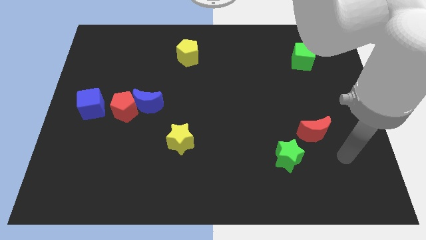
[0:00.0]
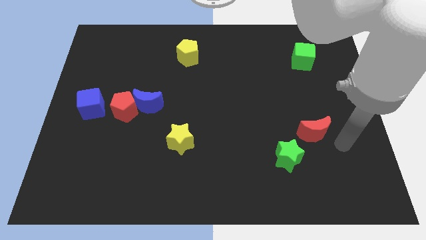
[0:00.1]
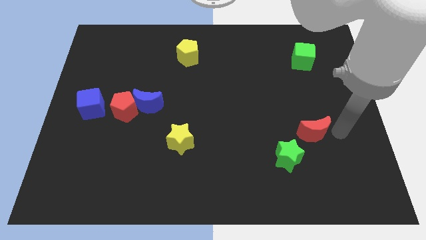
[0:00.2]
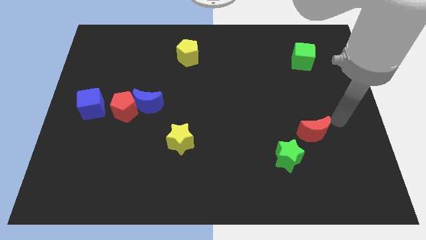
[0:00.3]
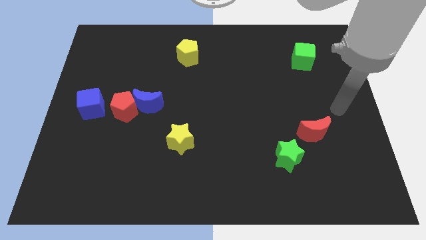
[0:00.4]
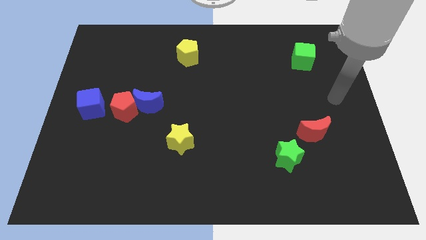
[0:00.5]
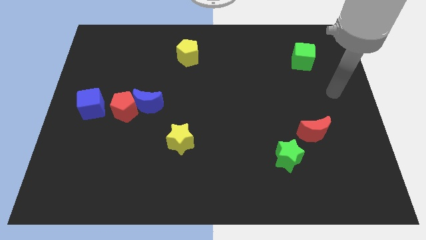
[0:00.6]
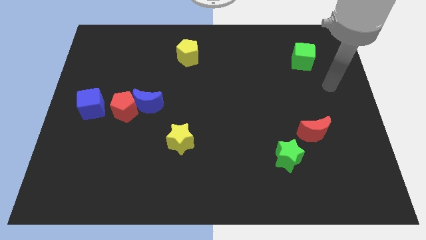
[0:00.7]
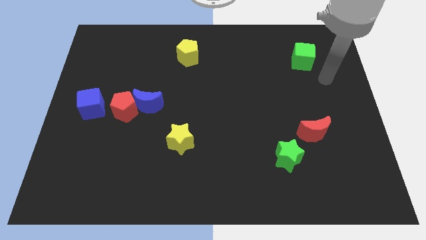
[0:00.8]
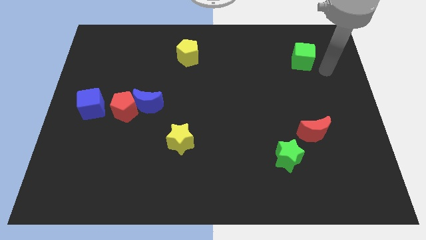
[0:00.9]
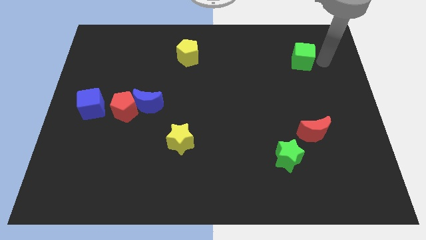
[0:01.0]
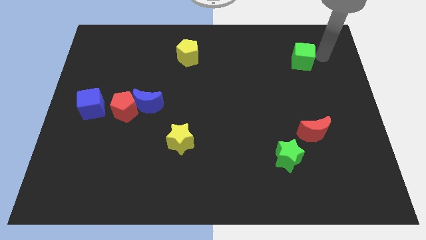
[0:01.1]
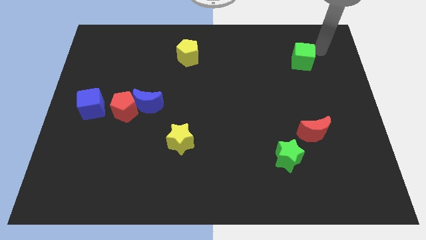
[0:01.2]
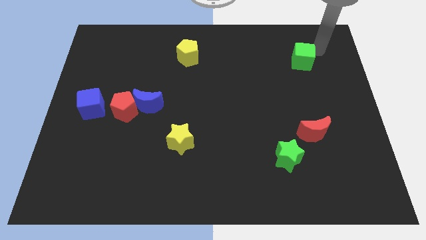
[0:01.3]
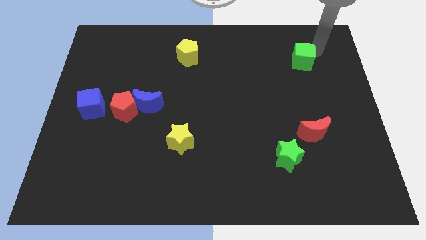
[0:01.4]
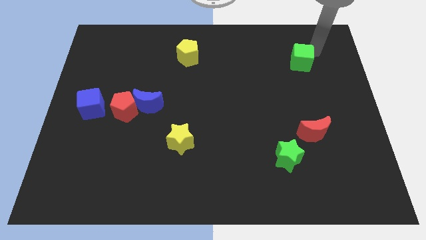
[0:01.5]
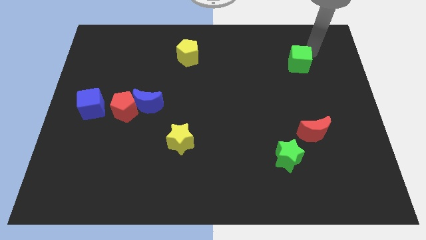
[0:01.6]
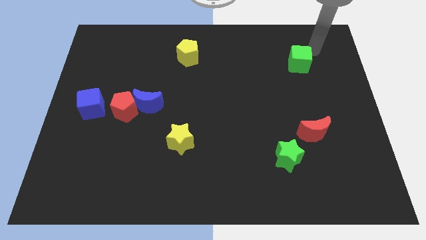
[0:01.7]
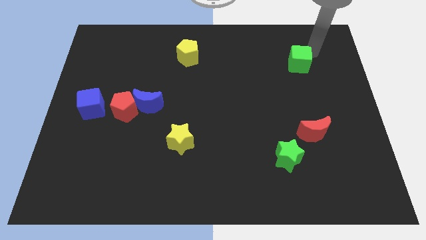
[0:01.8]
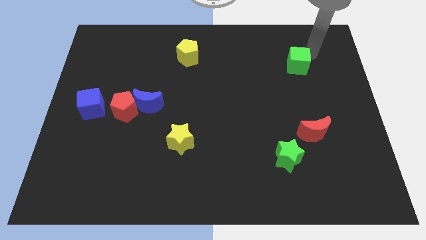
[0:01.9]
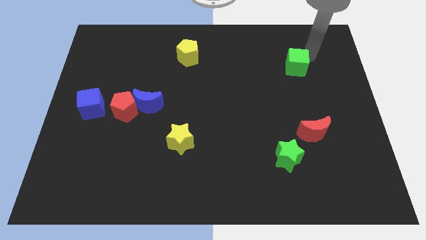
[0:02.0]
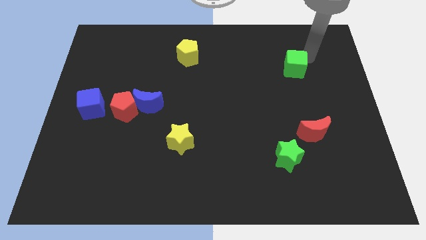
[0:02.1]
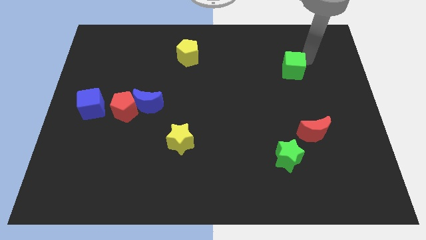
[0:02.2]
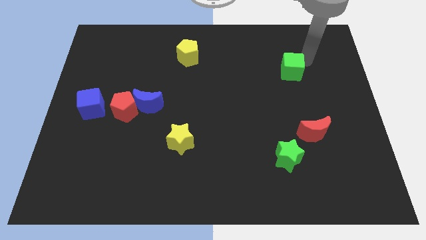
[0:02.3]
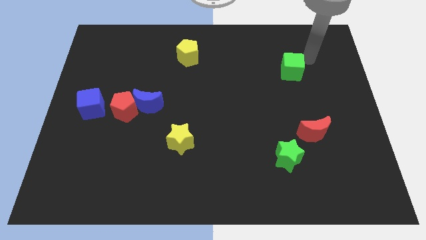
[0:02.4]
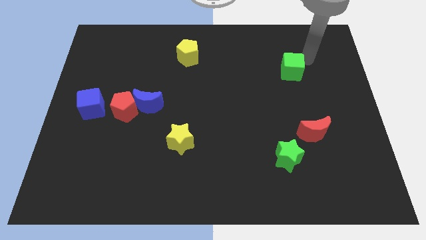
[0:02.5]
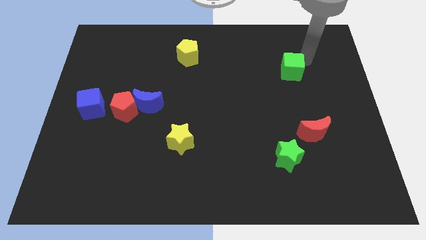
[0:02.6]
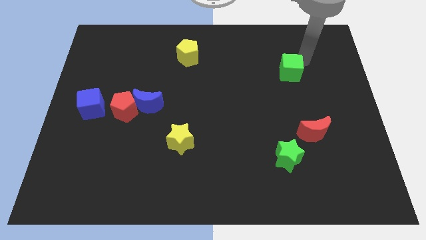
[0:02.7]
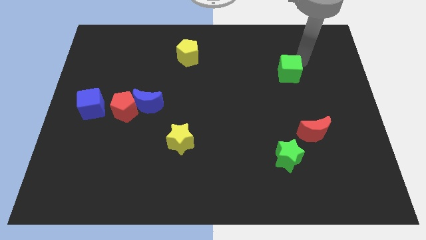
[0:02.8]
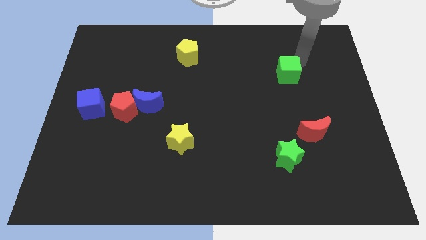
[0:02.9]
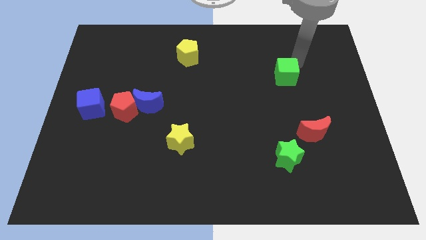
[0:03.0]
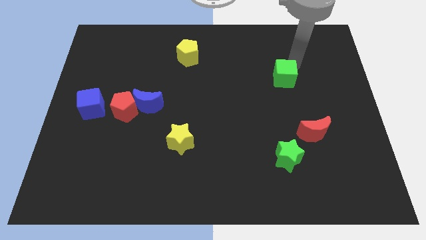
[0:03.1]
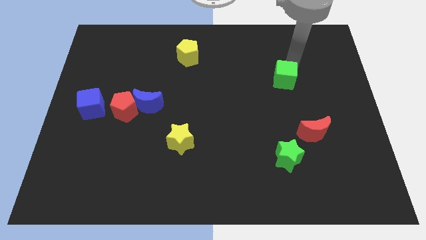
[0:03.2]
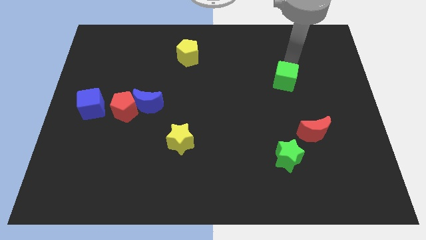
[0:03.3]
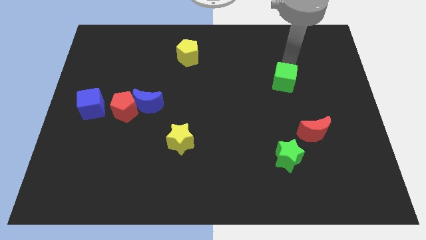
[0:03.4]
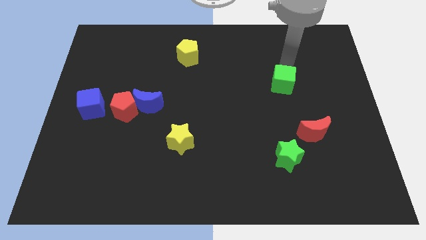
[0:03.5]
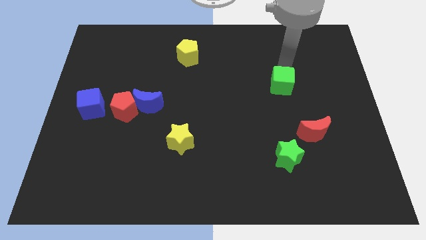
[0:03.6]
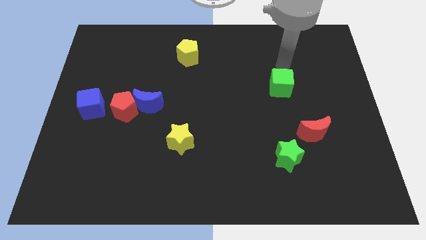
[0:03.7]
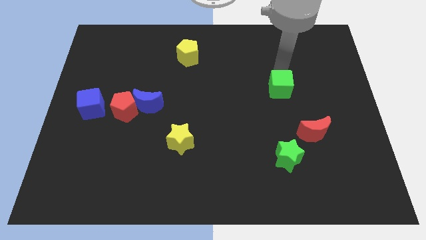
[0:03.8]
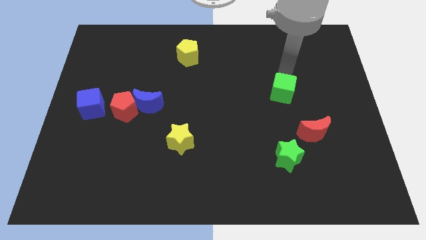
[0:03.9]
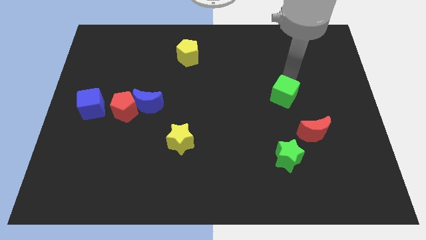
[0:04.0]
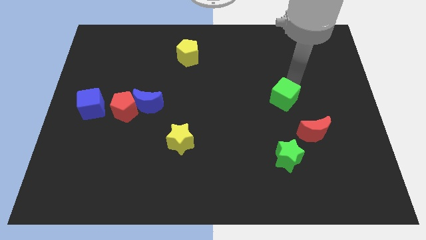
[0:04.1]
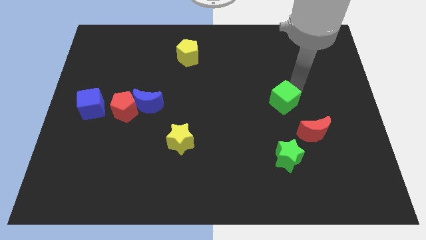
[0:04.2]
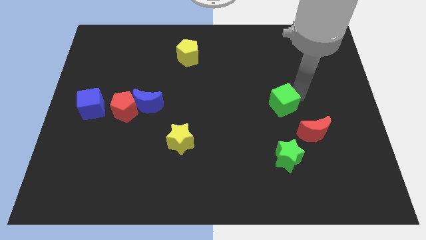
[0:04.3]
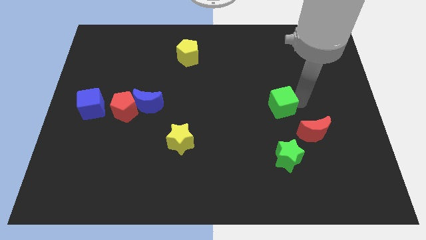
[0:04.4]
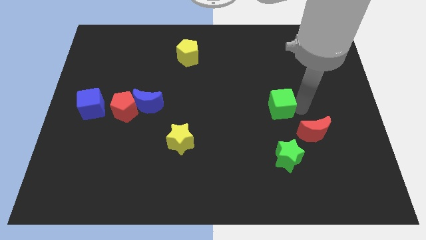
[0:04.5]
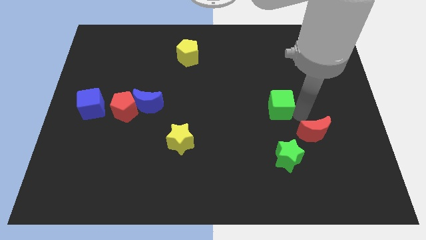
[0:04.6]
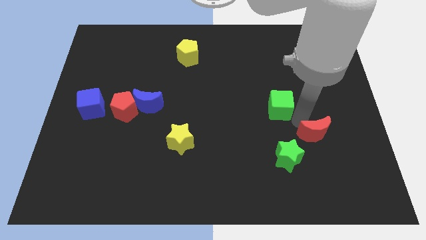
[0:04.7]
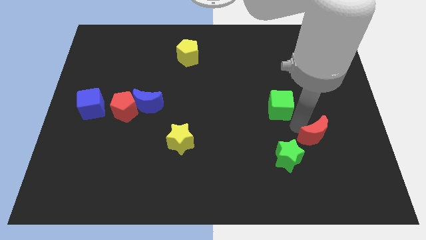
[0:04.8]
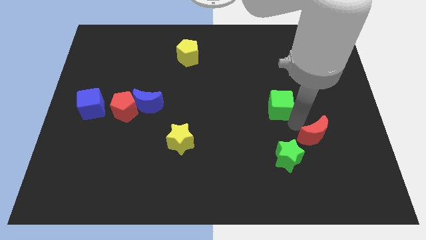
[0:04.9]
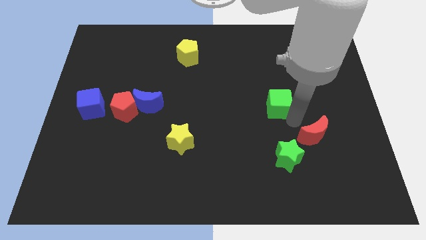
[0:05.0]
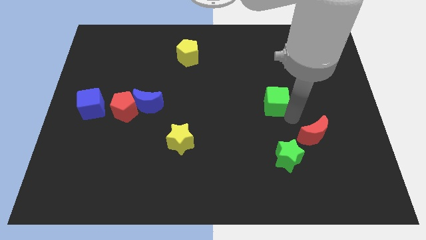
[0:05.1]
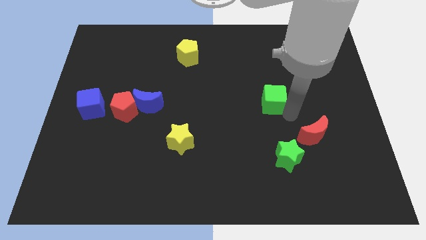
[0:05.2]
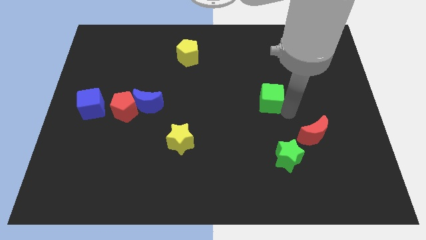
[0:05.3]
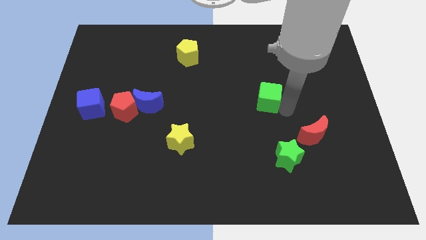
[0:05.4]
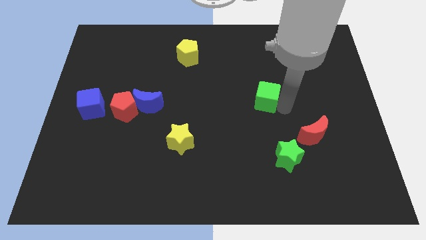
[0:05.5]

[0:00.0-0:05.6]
slide the green cube to the center of the board

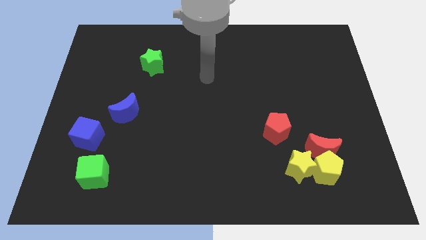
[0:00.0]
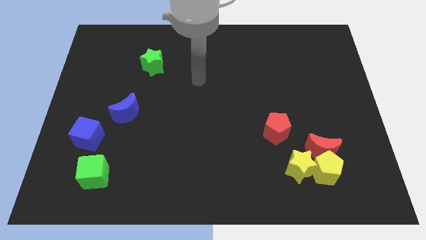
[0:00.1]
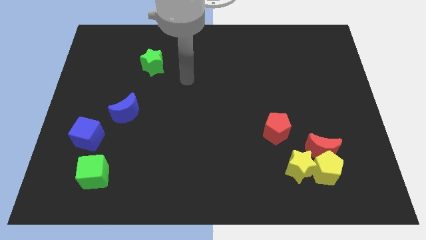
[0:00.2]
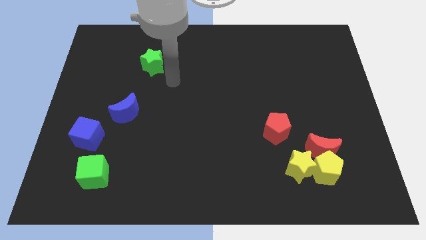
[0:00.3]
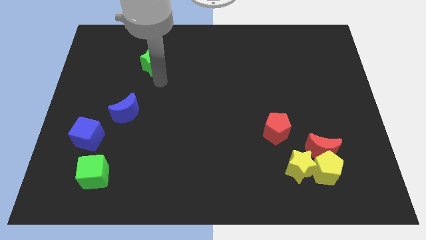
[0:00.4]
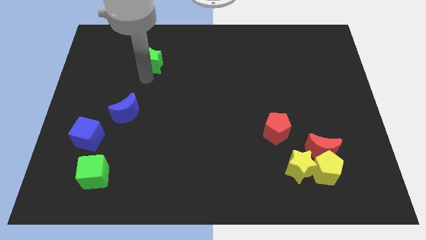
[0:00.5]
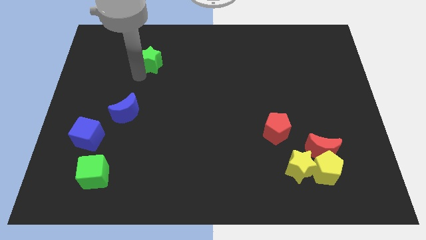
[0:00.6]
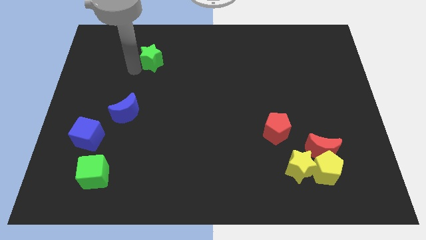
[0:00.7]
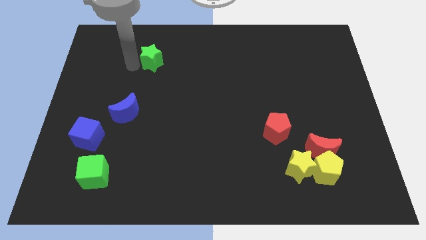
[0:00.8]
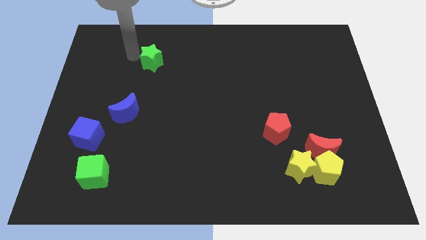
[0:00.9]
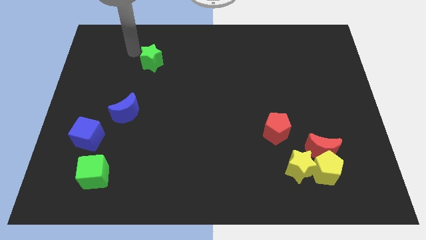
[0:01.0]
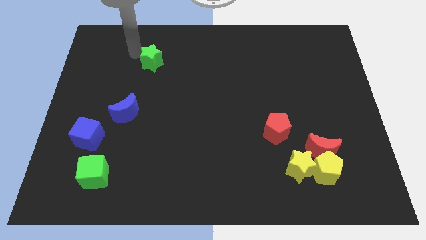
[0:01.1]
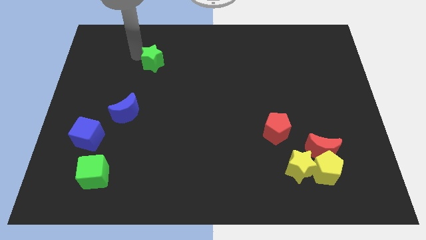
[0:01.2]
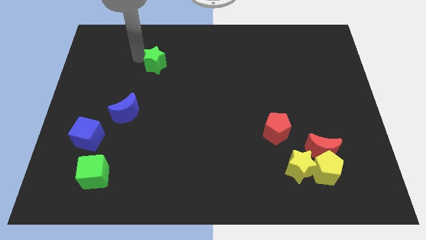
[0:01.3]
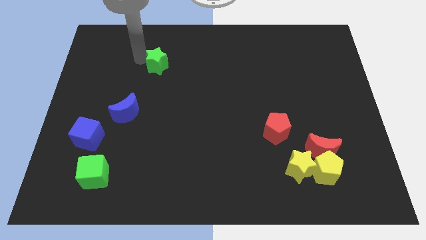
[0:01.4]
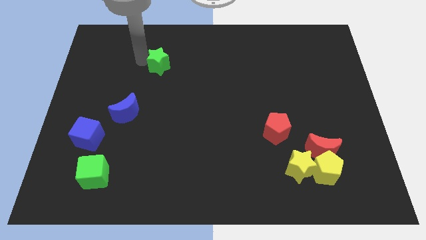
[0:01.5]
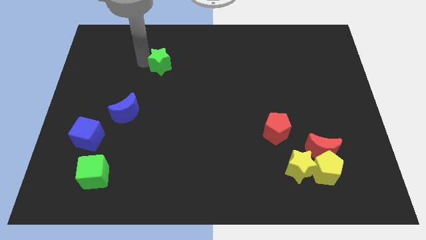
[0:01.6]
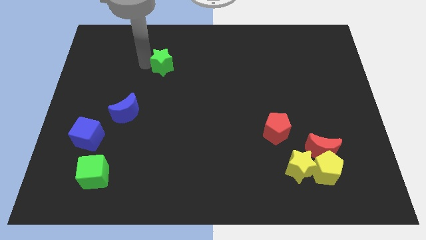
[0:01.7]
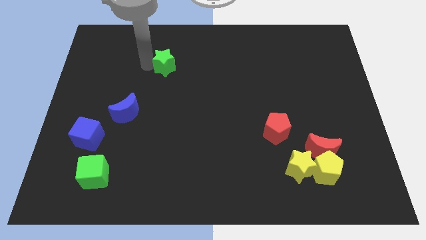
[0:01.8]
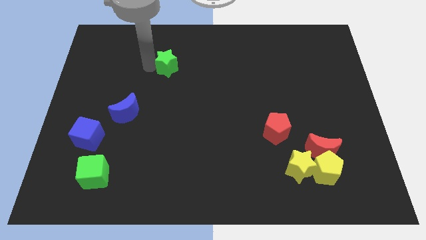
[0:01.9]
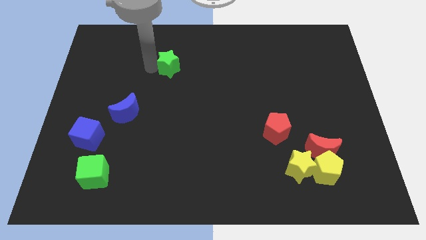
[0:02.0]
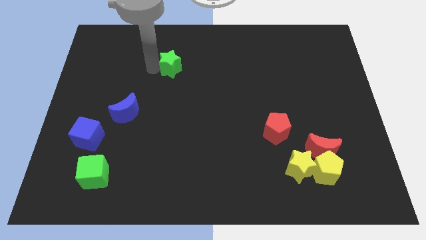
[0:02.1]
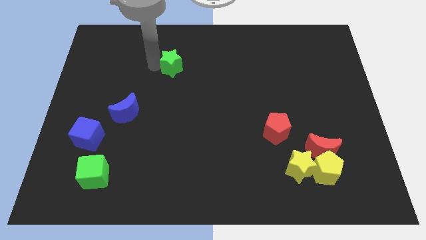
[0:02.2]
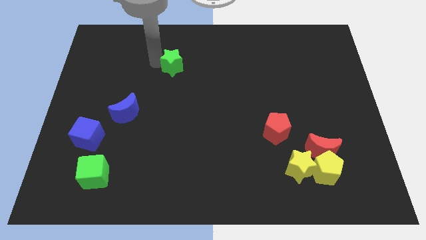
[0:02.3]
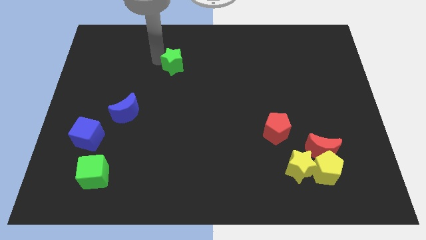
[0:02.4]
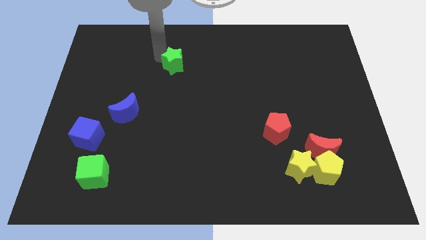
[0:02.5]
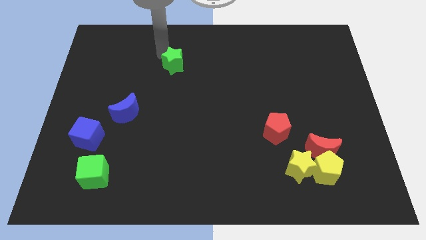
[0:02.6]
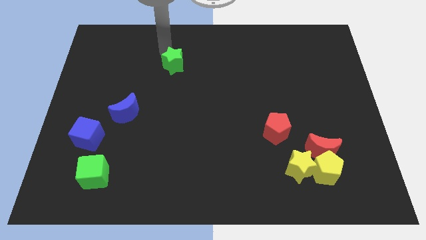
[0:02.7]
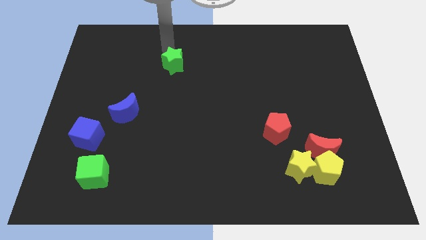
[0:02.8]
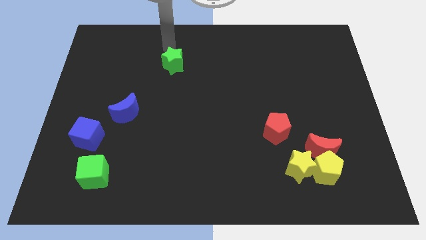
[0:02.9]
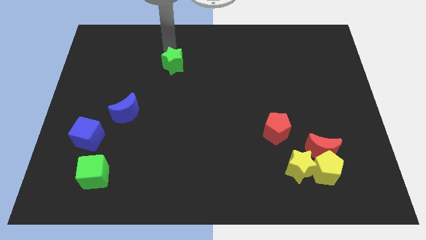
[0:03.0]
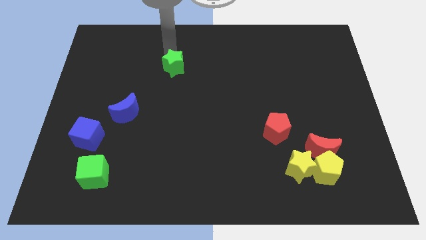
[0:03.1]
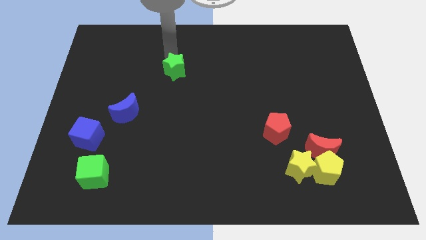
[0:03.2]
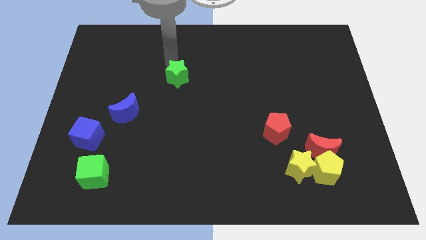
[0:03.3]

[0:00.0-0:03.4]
slide the green star to the center of the board
